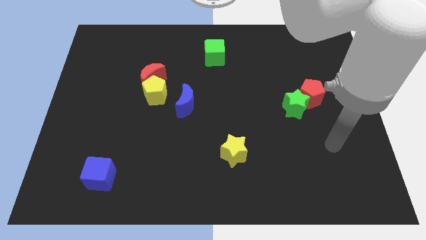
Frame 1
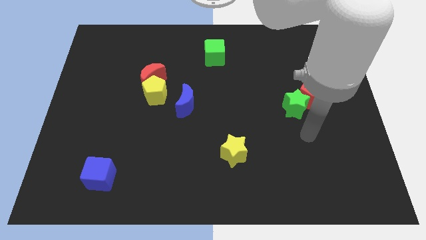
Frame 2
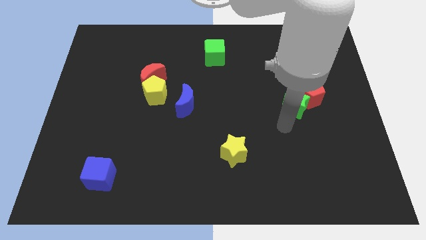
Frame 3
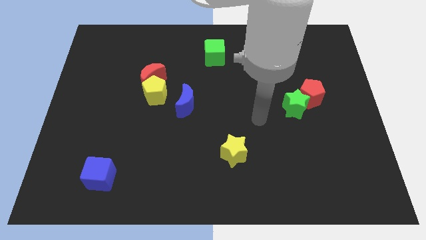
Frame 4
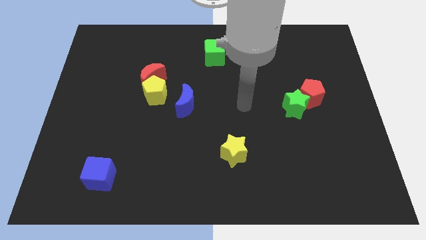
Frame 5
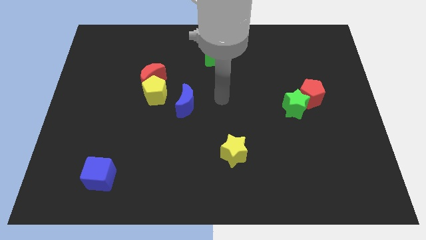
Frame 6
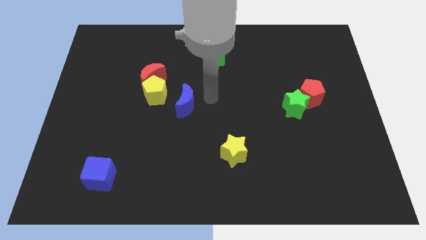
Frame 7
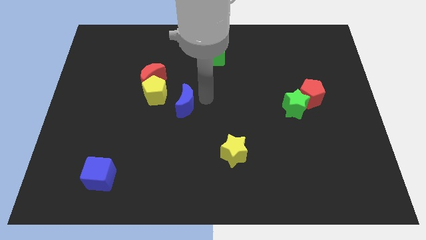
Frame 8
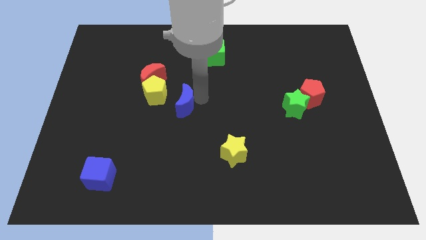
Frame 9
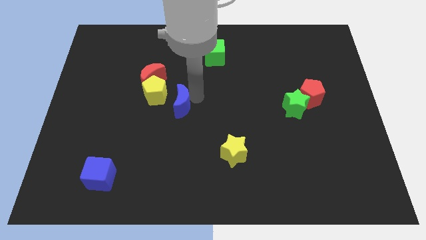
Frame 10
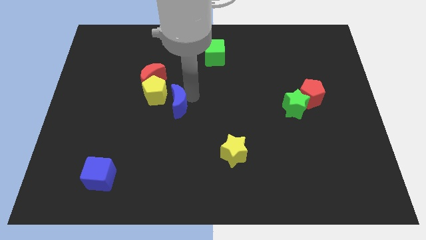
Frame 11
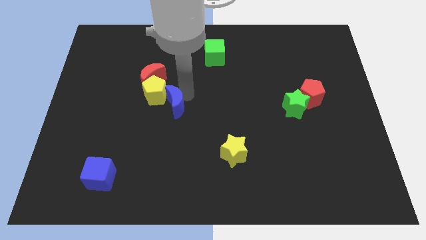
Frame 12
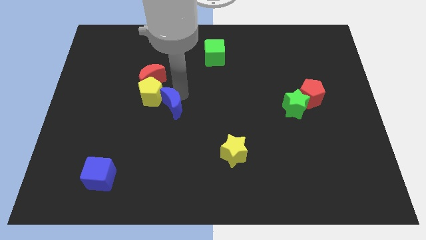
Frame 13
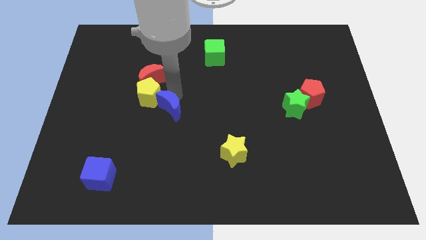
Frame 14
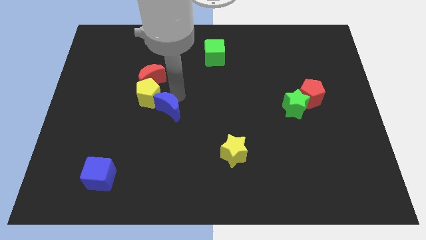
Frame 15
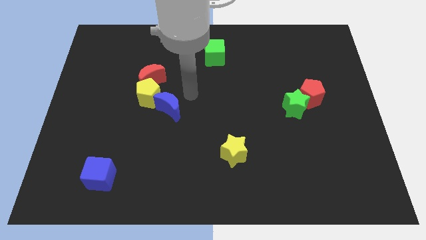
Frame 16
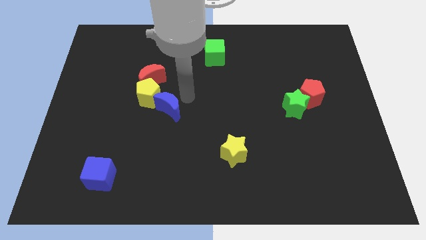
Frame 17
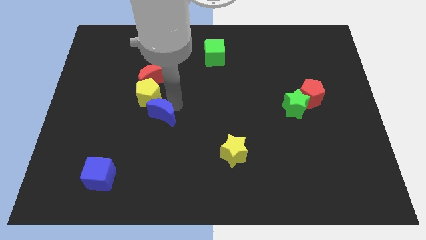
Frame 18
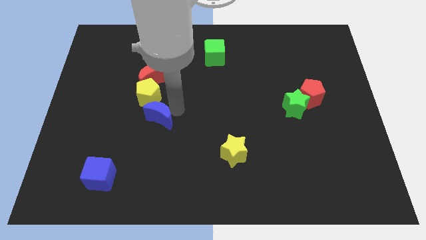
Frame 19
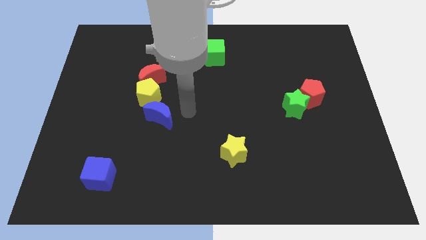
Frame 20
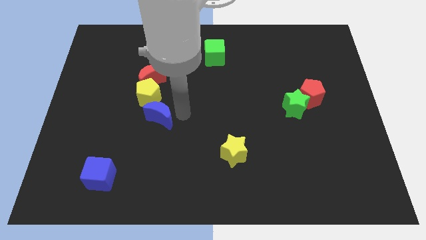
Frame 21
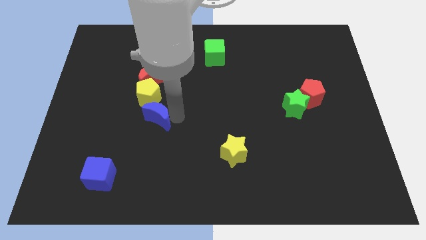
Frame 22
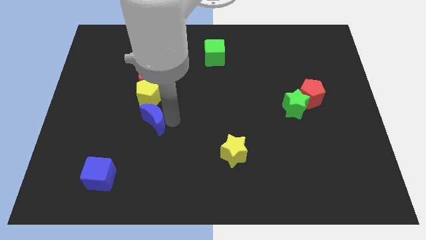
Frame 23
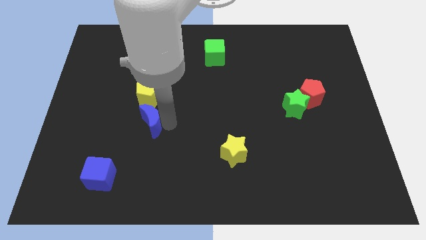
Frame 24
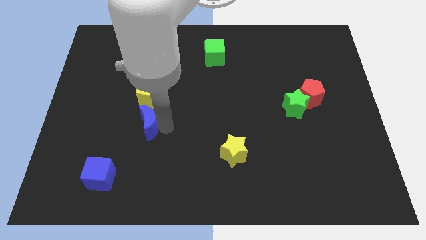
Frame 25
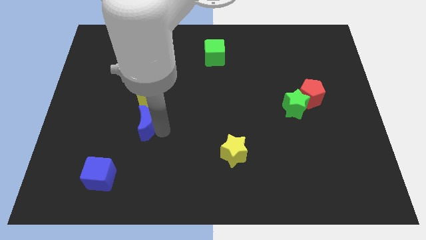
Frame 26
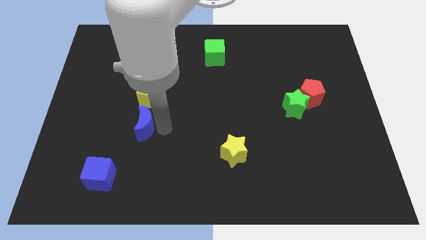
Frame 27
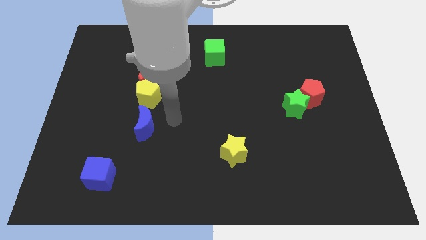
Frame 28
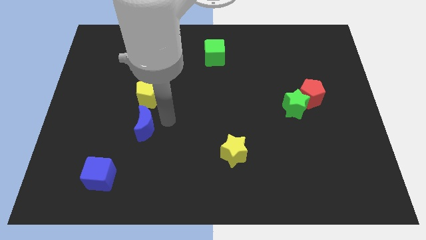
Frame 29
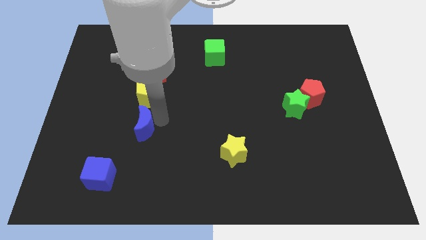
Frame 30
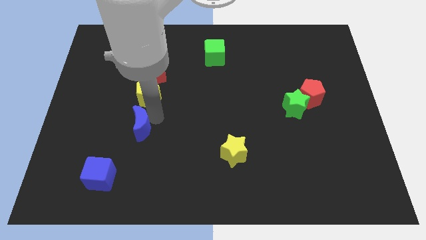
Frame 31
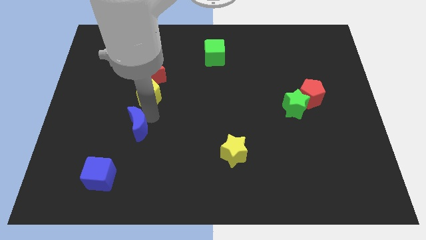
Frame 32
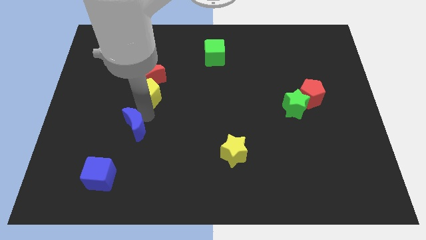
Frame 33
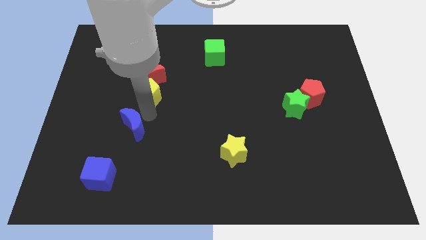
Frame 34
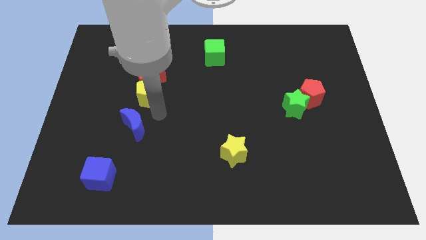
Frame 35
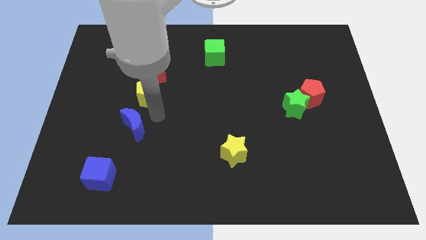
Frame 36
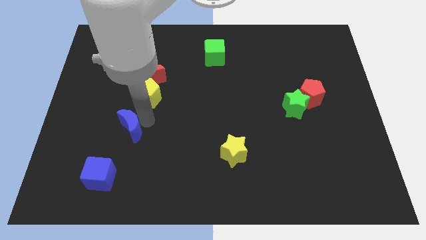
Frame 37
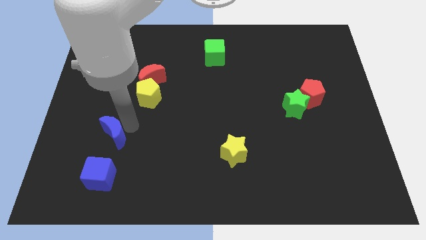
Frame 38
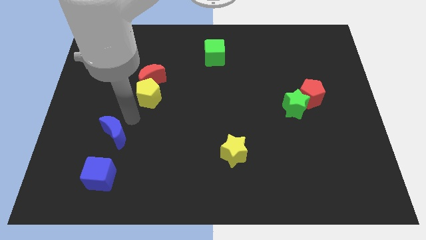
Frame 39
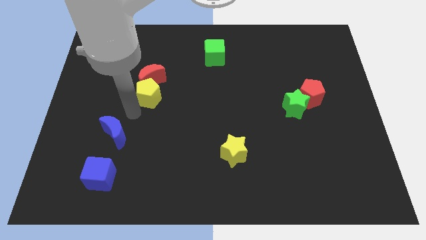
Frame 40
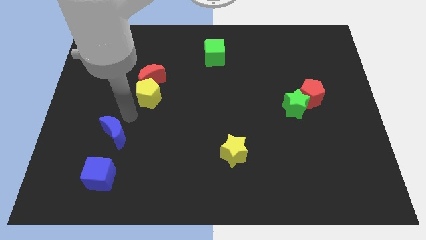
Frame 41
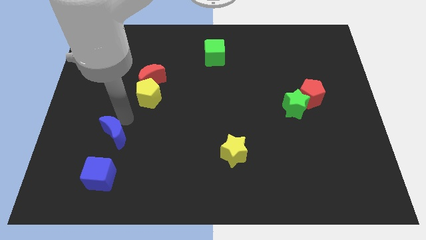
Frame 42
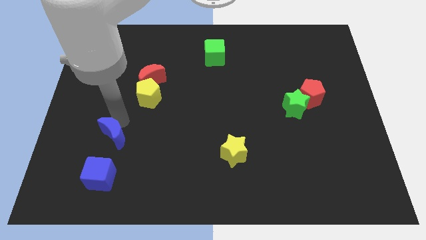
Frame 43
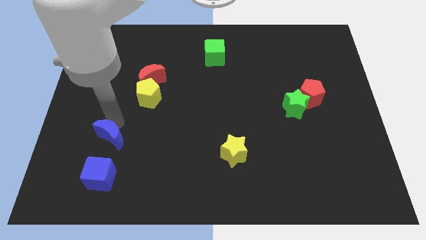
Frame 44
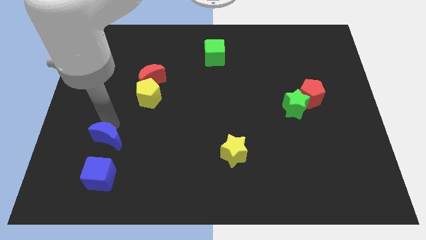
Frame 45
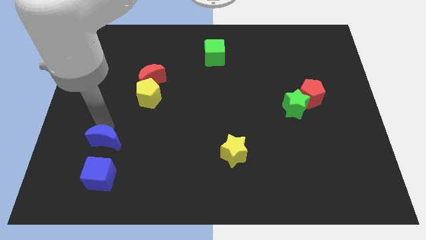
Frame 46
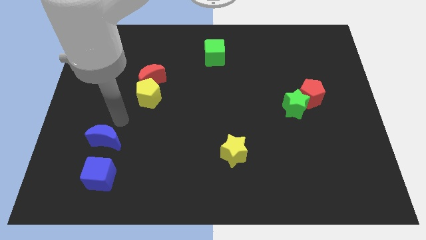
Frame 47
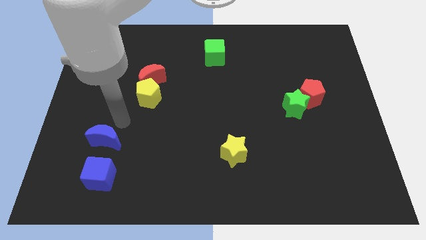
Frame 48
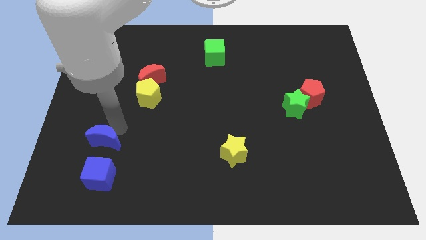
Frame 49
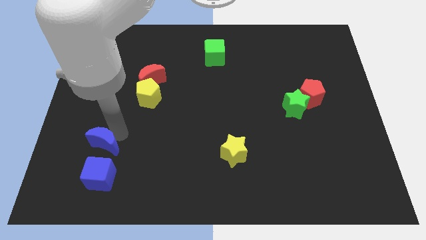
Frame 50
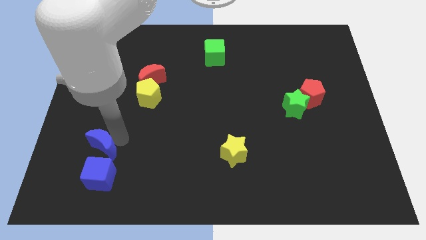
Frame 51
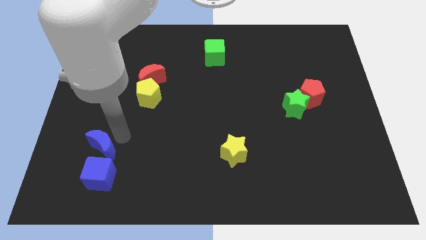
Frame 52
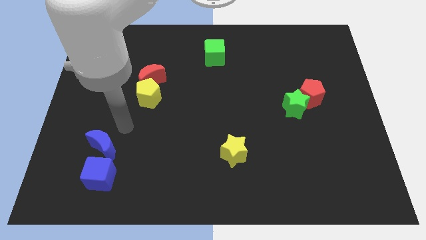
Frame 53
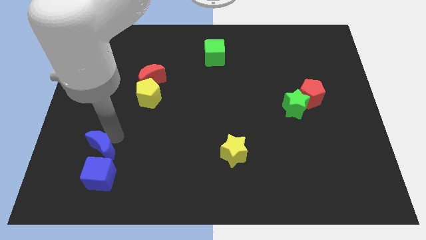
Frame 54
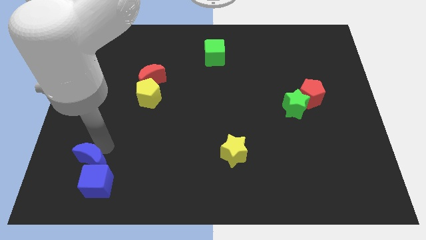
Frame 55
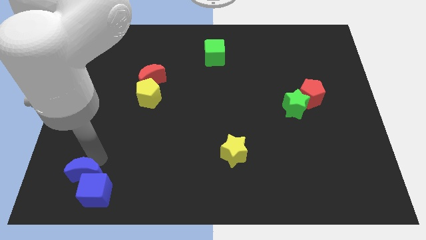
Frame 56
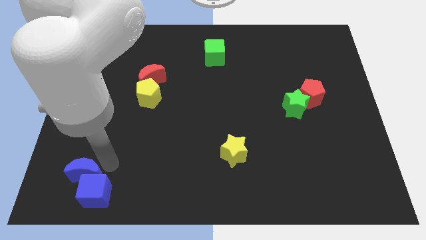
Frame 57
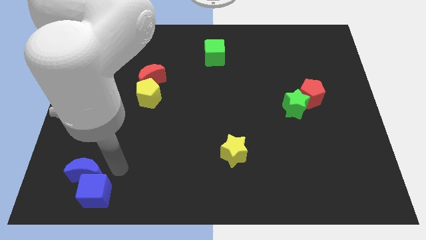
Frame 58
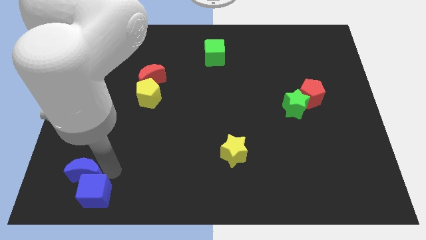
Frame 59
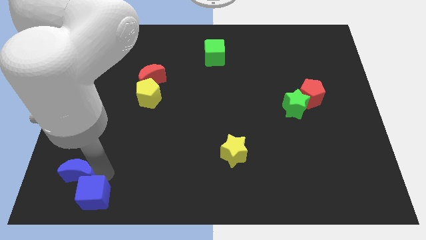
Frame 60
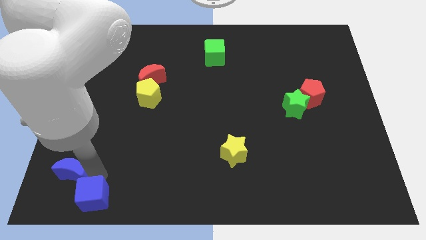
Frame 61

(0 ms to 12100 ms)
slide the blue moon to the lower left corner
